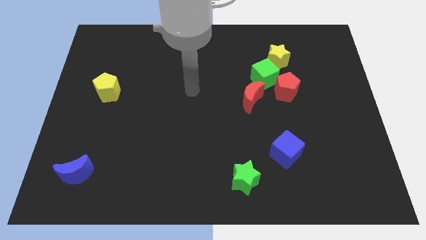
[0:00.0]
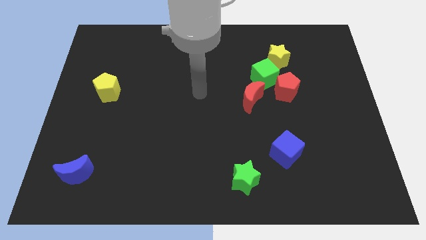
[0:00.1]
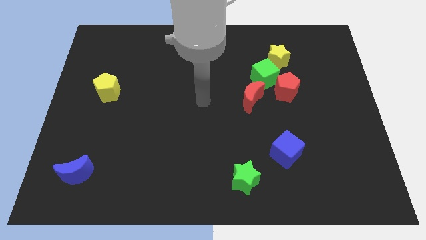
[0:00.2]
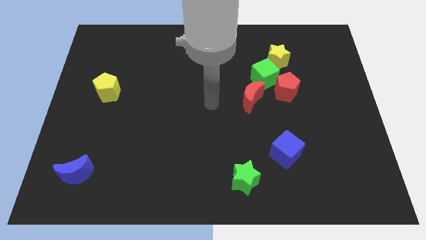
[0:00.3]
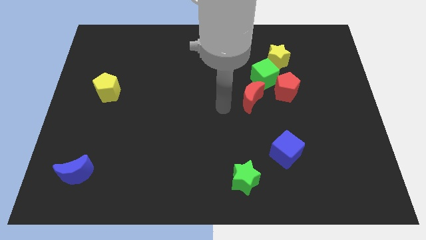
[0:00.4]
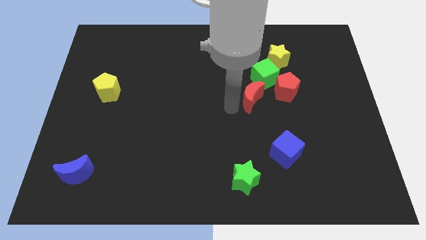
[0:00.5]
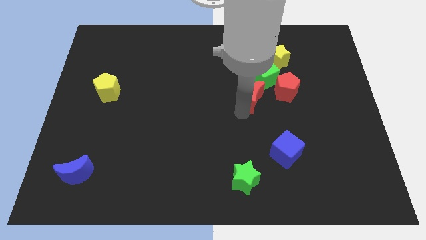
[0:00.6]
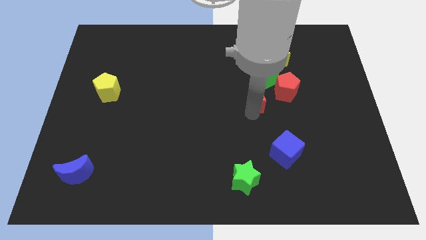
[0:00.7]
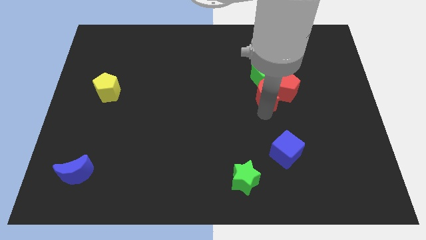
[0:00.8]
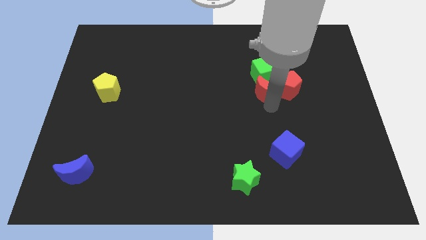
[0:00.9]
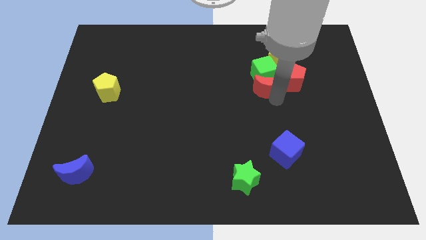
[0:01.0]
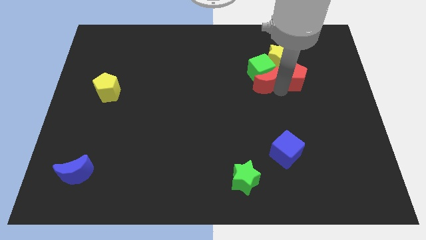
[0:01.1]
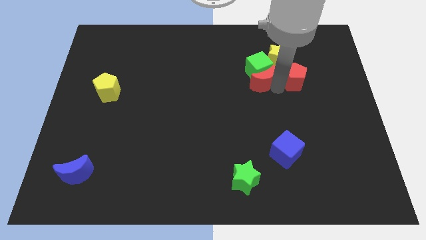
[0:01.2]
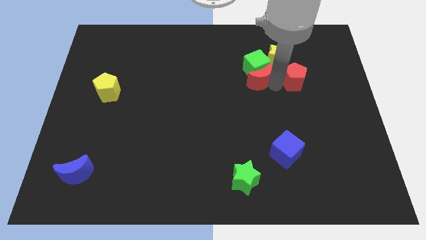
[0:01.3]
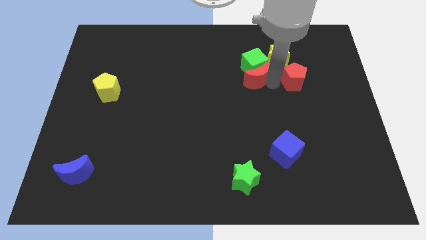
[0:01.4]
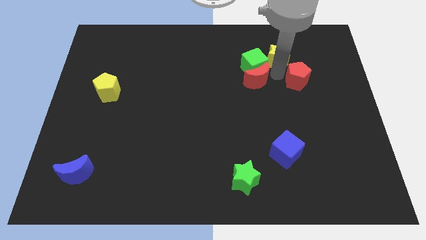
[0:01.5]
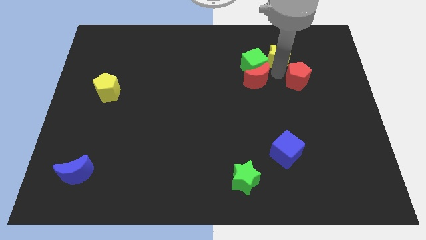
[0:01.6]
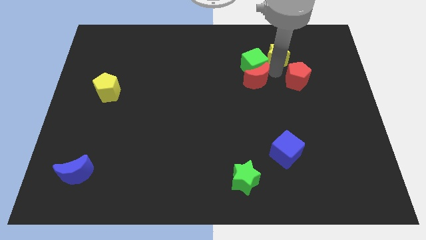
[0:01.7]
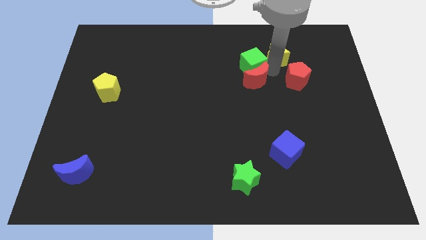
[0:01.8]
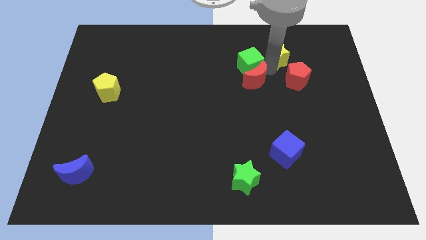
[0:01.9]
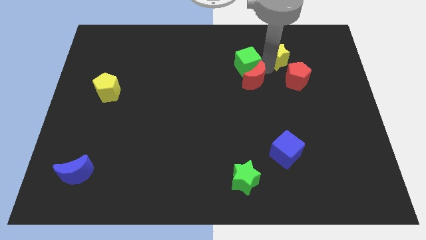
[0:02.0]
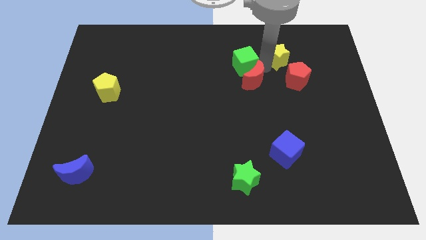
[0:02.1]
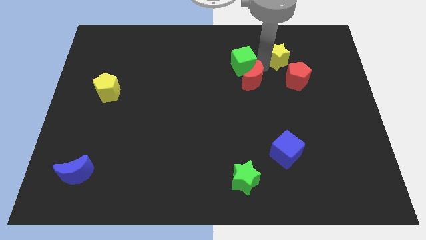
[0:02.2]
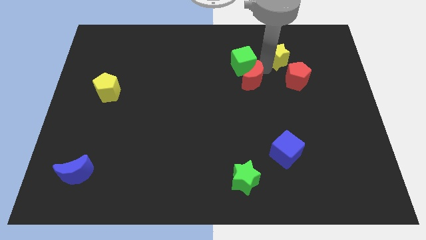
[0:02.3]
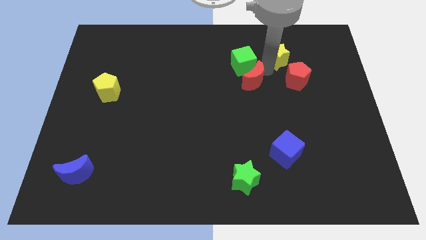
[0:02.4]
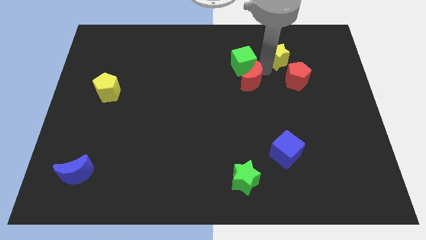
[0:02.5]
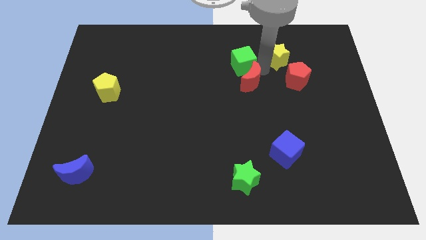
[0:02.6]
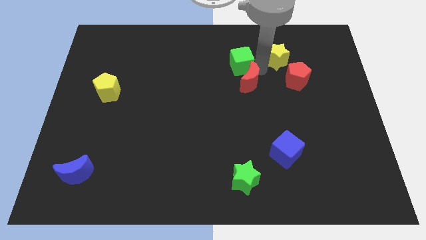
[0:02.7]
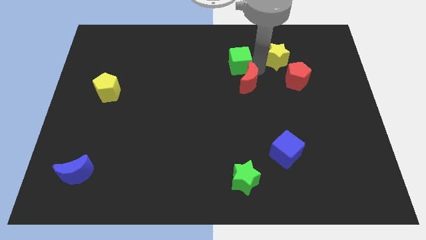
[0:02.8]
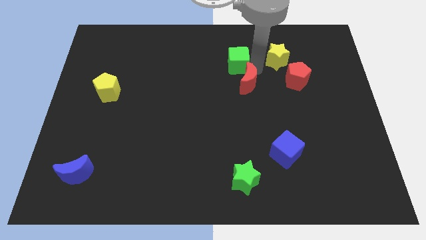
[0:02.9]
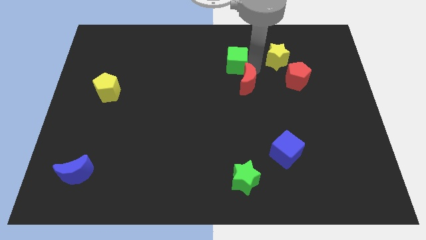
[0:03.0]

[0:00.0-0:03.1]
separate the green cube from the group of blocks

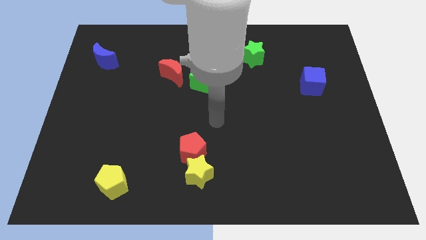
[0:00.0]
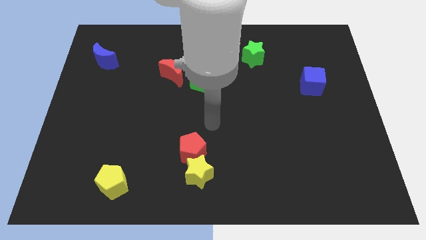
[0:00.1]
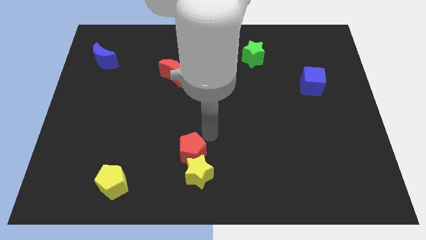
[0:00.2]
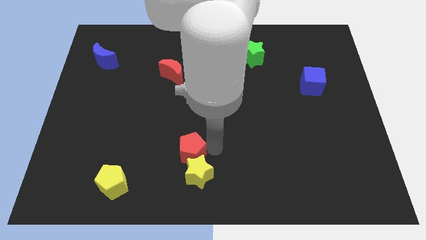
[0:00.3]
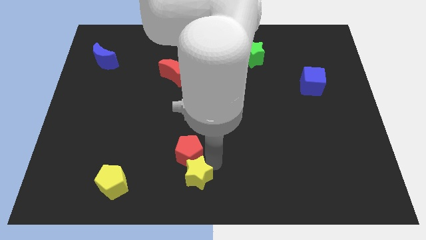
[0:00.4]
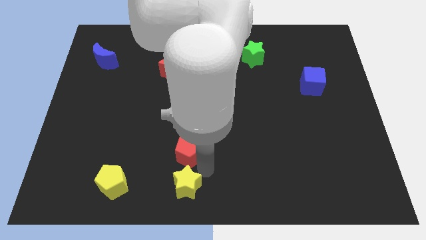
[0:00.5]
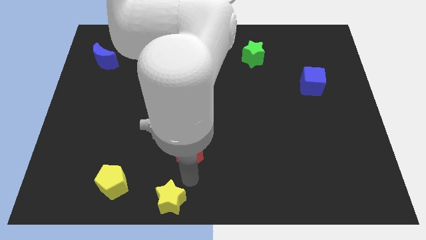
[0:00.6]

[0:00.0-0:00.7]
move the red pentagon away from the yellow star

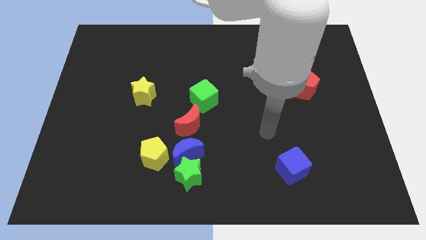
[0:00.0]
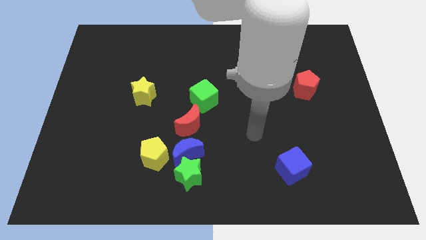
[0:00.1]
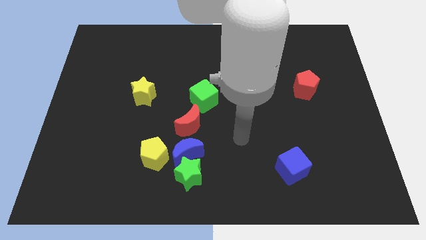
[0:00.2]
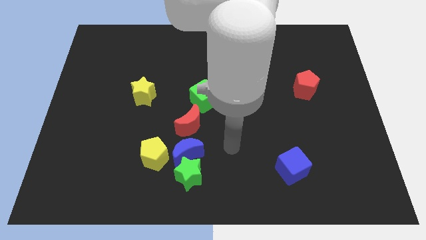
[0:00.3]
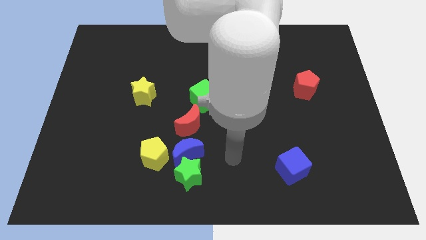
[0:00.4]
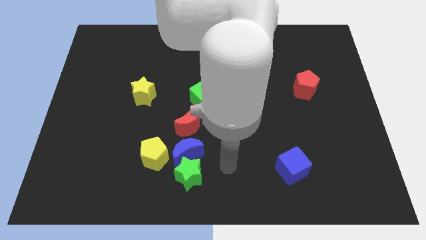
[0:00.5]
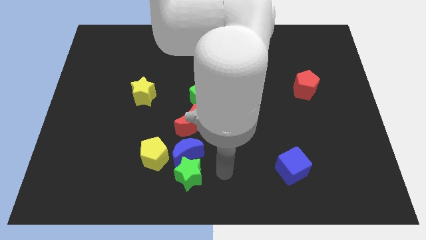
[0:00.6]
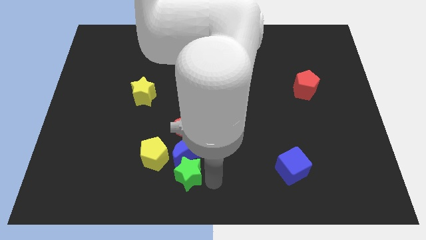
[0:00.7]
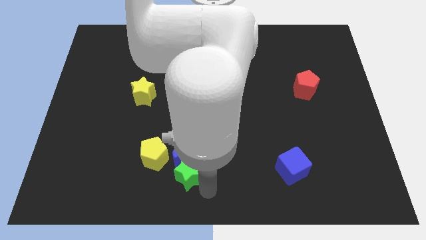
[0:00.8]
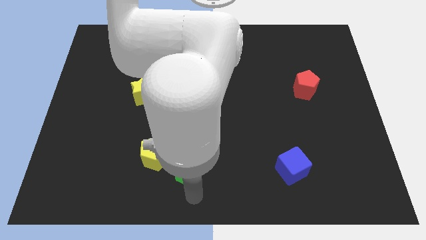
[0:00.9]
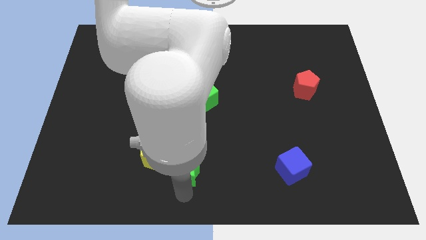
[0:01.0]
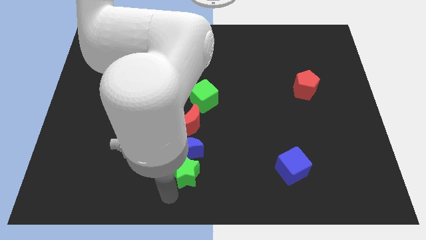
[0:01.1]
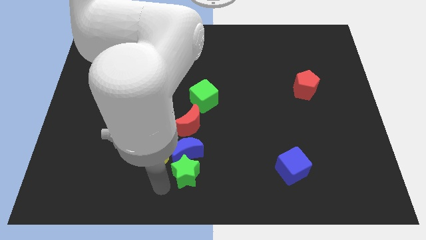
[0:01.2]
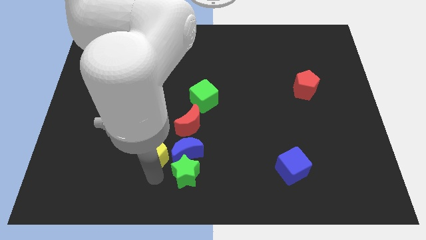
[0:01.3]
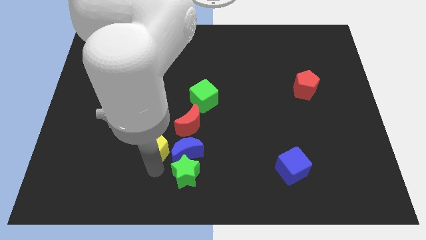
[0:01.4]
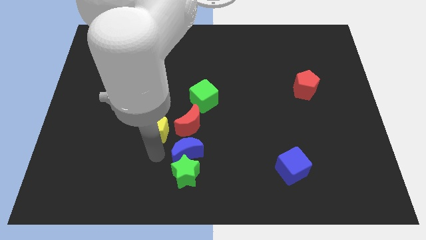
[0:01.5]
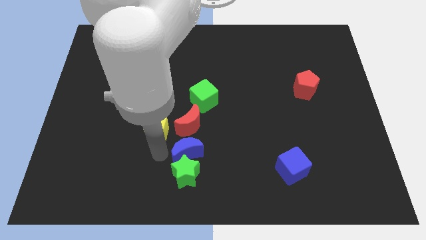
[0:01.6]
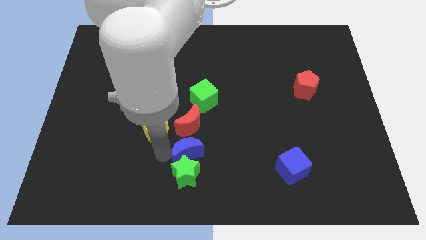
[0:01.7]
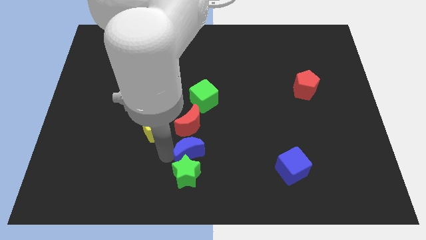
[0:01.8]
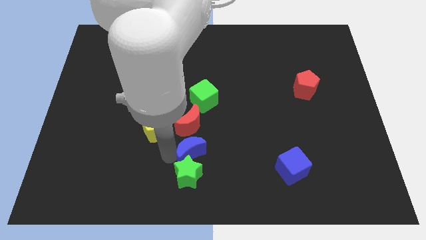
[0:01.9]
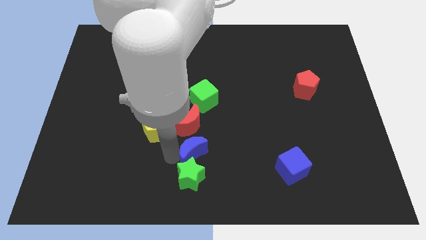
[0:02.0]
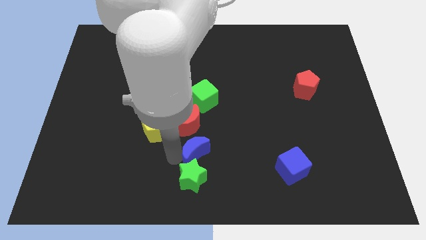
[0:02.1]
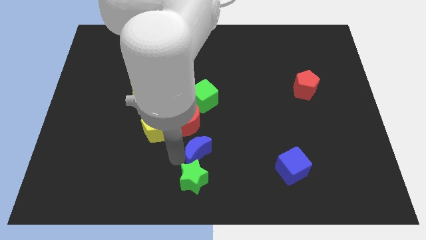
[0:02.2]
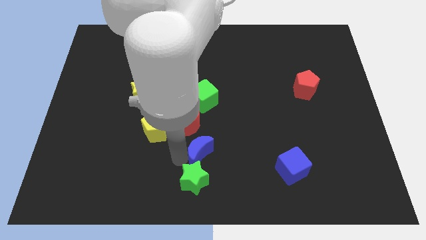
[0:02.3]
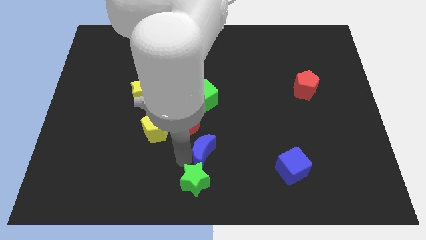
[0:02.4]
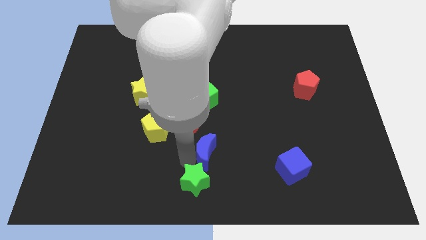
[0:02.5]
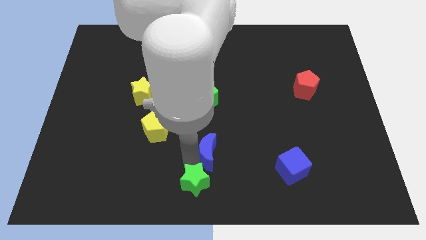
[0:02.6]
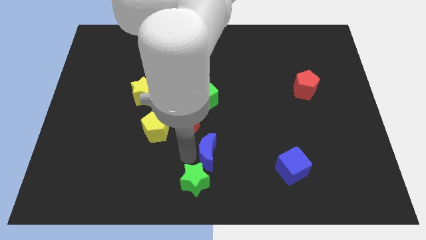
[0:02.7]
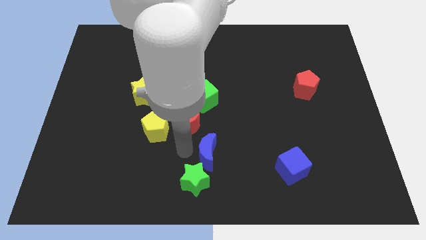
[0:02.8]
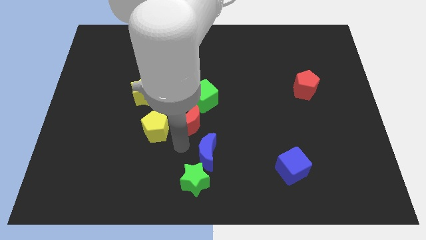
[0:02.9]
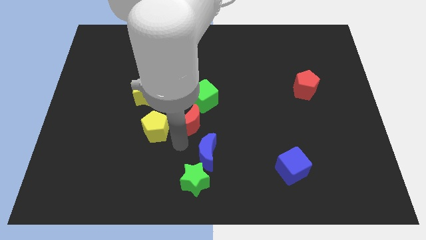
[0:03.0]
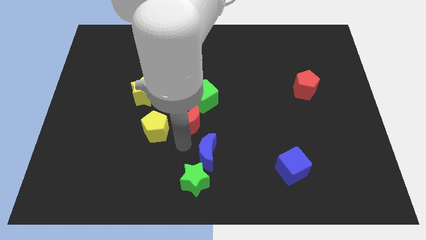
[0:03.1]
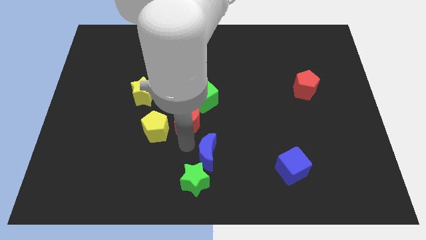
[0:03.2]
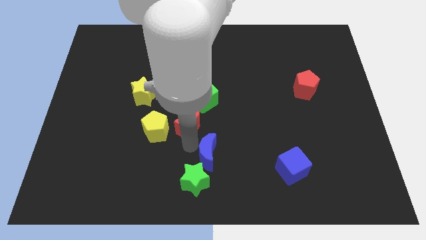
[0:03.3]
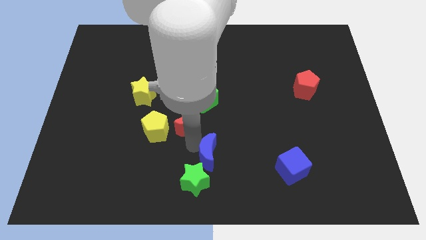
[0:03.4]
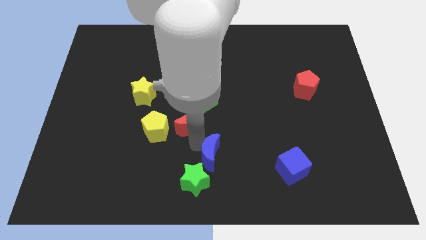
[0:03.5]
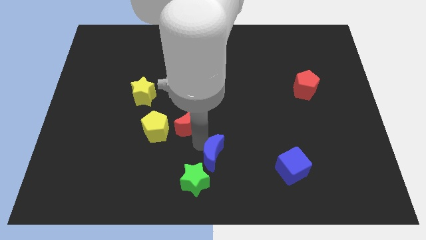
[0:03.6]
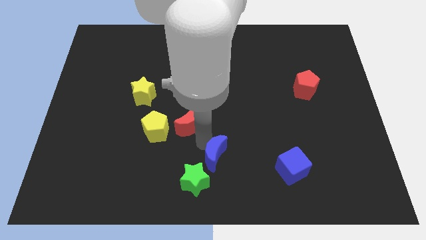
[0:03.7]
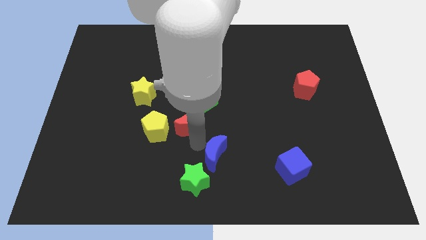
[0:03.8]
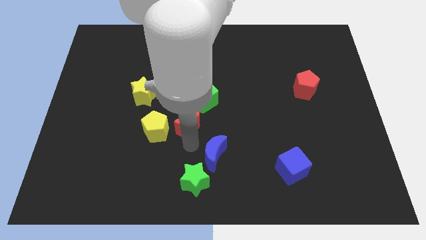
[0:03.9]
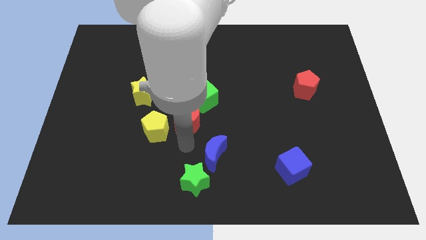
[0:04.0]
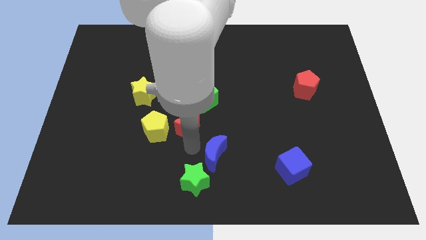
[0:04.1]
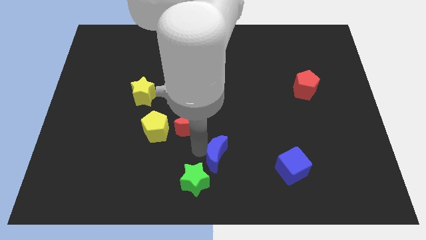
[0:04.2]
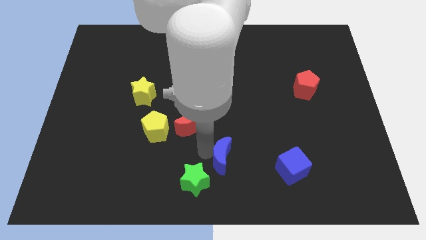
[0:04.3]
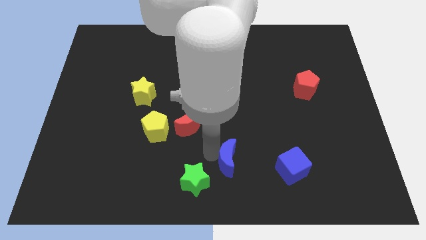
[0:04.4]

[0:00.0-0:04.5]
move the blue moon away from the group of blocks

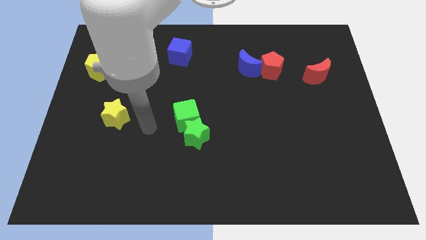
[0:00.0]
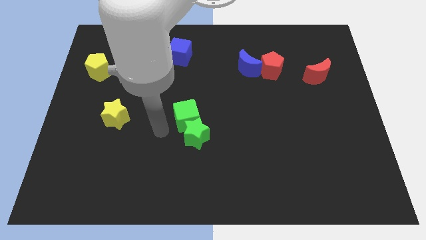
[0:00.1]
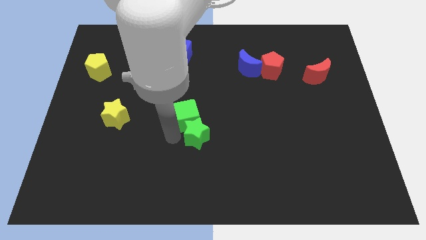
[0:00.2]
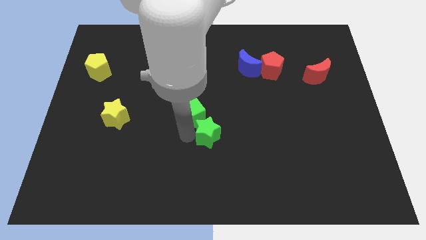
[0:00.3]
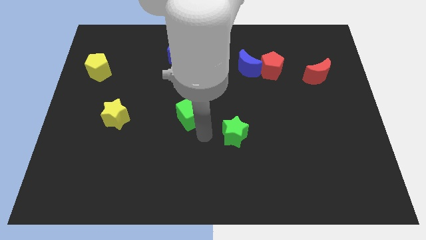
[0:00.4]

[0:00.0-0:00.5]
separate the green cube from the green star

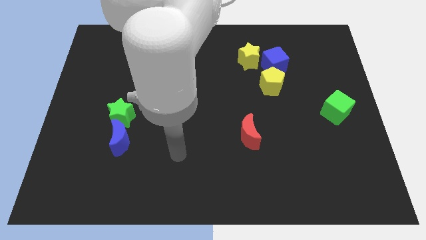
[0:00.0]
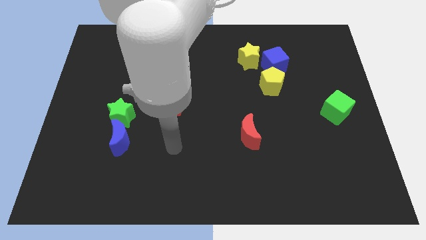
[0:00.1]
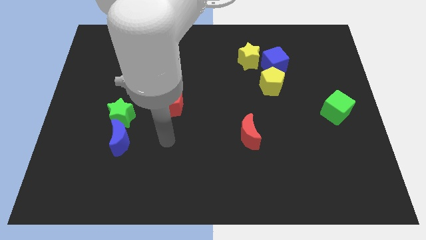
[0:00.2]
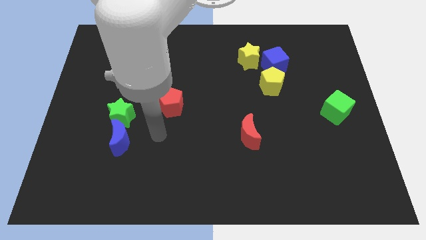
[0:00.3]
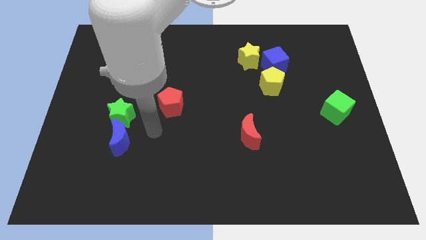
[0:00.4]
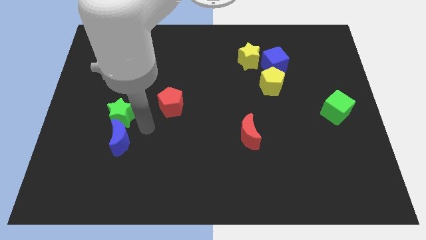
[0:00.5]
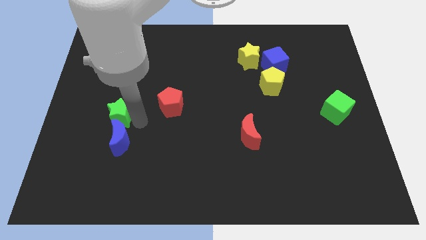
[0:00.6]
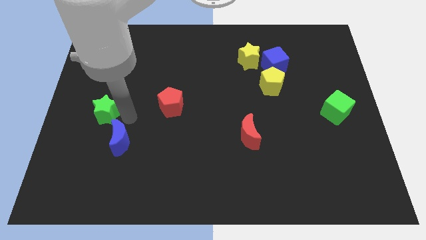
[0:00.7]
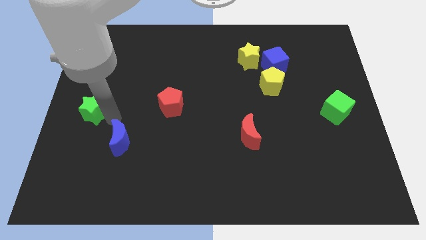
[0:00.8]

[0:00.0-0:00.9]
move the blue moon away from the green star
